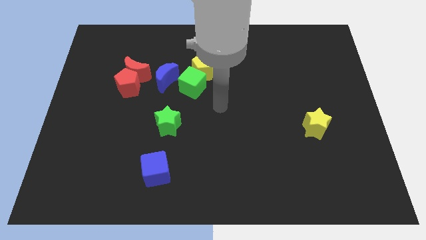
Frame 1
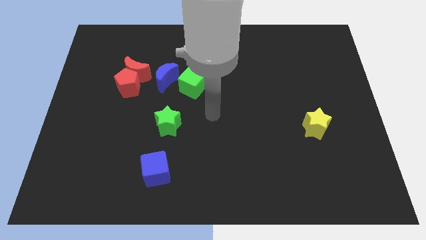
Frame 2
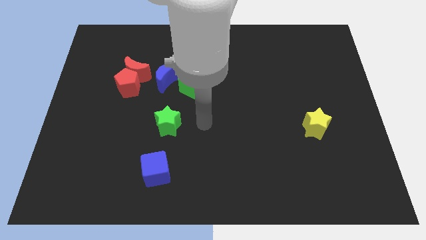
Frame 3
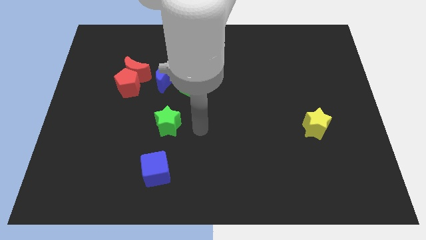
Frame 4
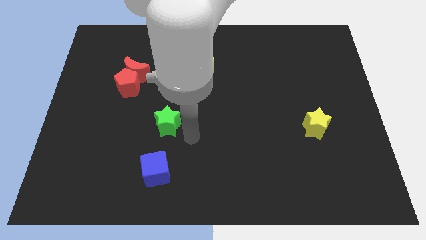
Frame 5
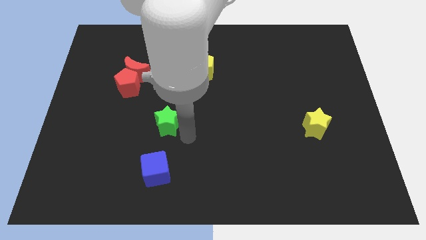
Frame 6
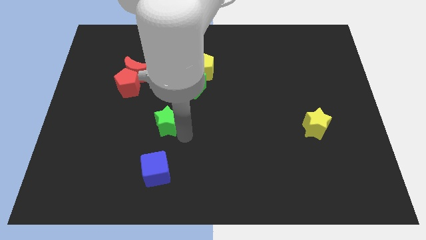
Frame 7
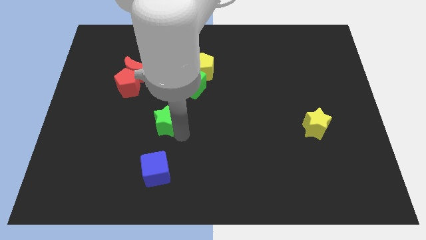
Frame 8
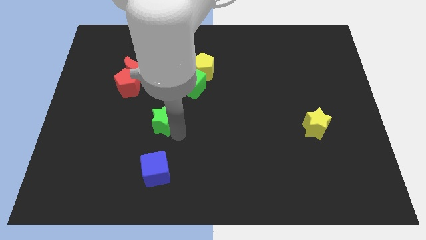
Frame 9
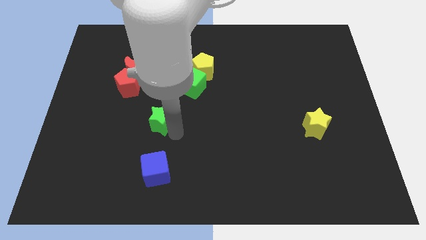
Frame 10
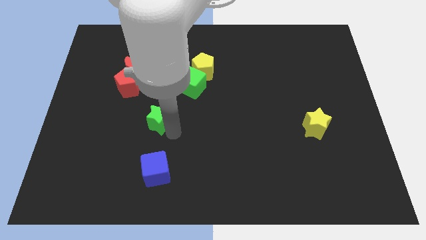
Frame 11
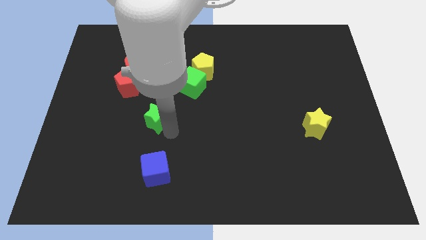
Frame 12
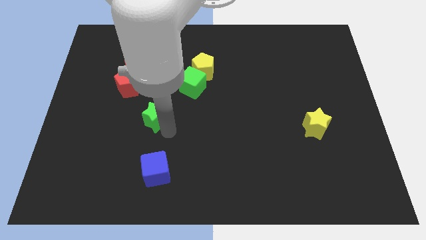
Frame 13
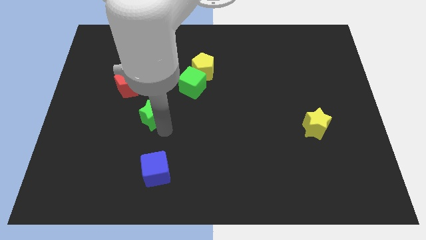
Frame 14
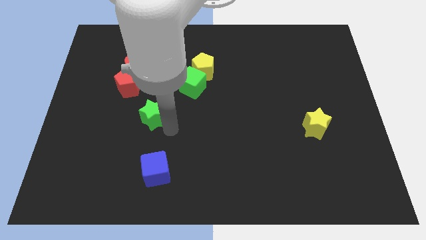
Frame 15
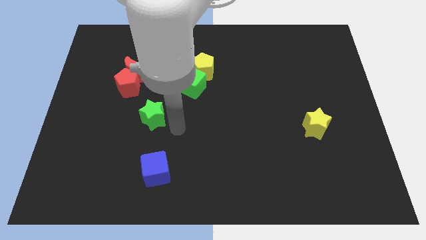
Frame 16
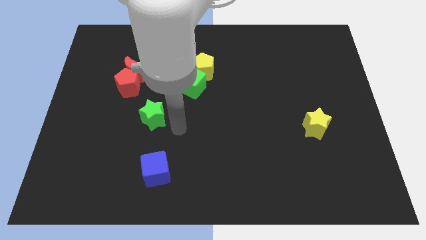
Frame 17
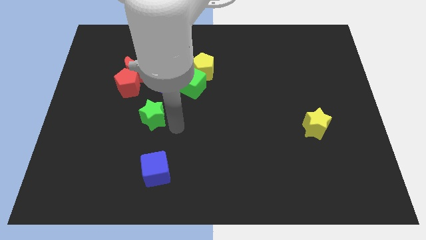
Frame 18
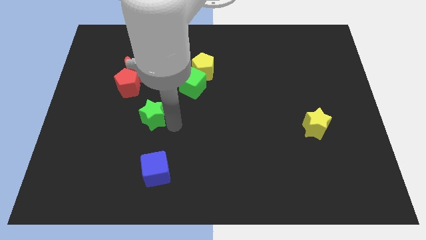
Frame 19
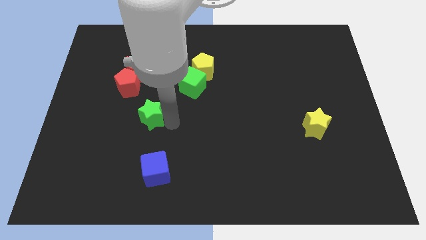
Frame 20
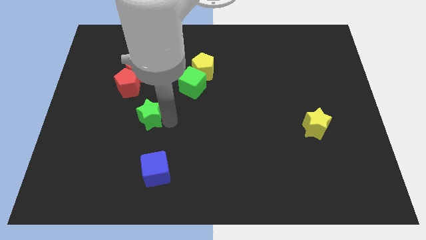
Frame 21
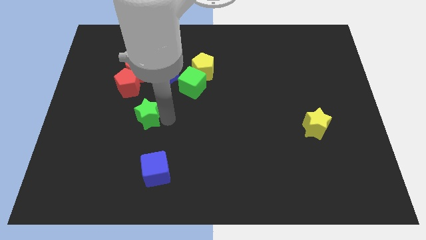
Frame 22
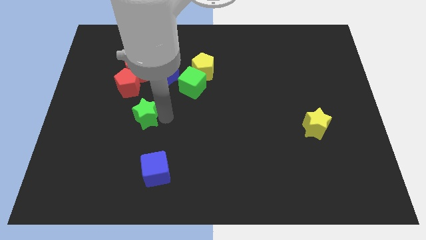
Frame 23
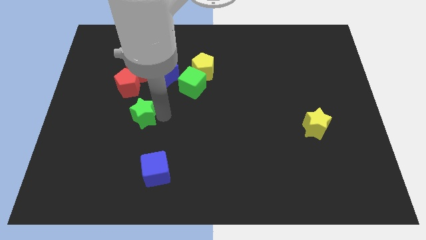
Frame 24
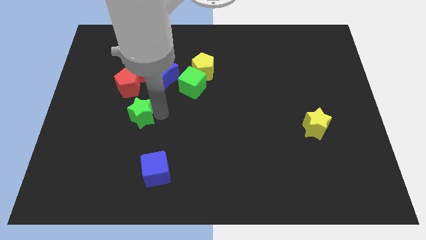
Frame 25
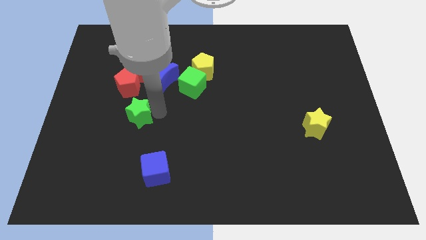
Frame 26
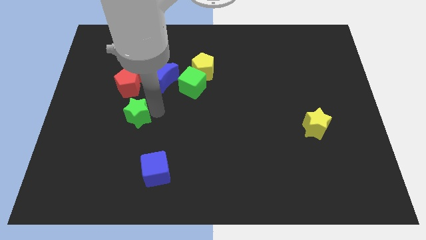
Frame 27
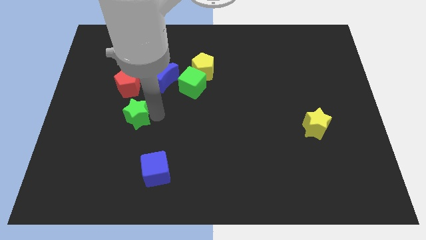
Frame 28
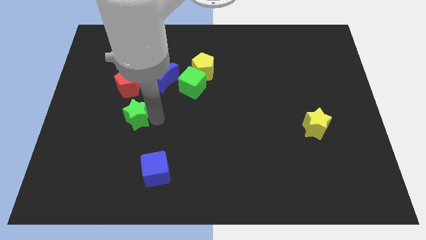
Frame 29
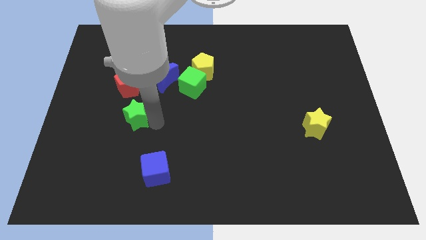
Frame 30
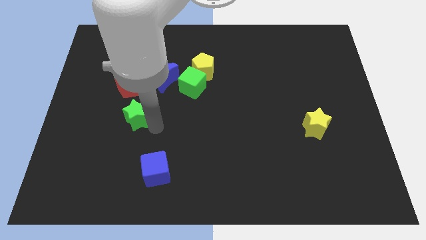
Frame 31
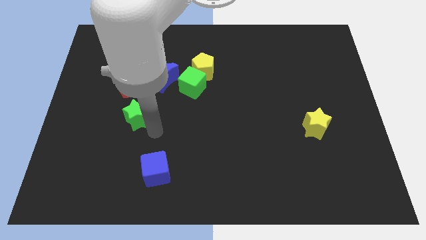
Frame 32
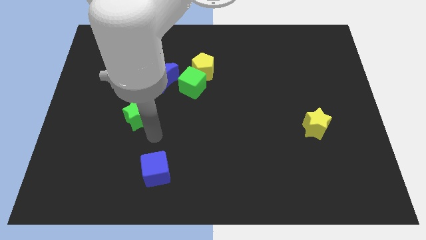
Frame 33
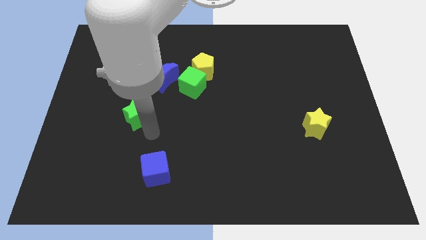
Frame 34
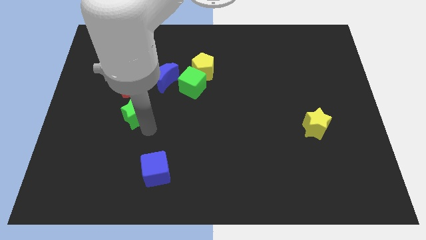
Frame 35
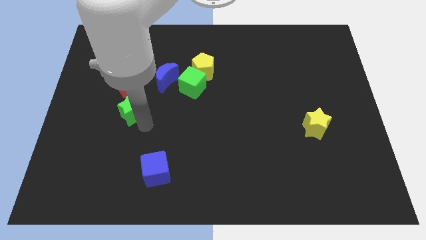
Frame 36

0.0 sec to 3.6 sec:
slide the green star up and to the left diagonally slightly

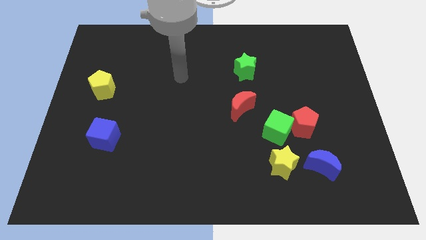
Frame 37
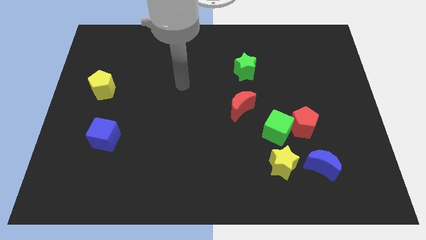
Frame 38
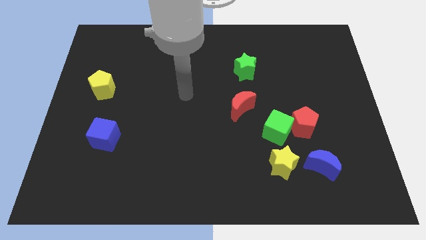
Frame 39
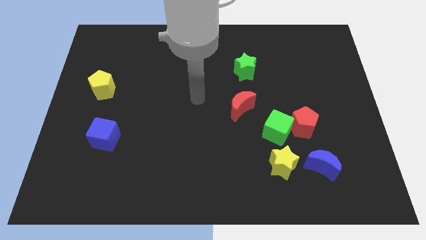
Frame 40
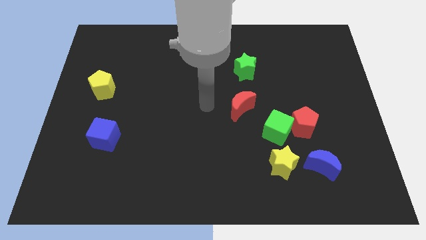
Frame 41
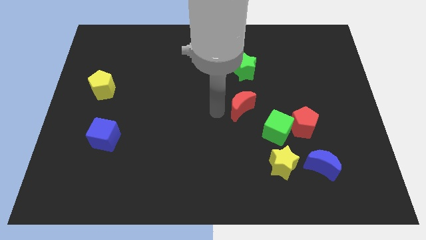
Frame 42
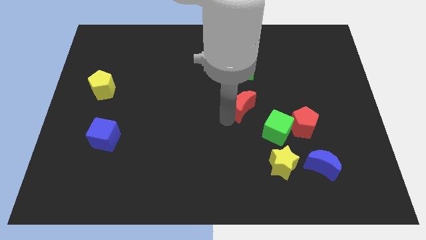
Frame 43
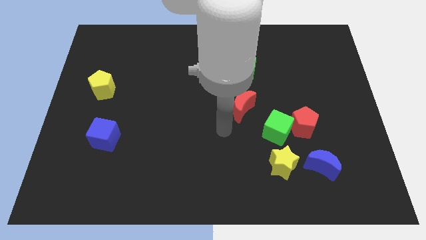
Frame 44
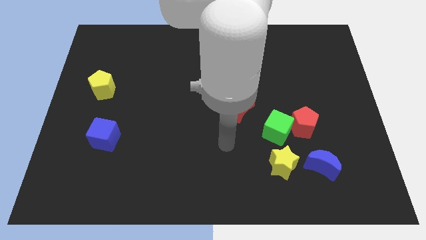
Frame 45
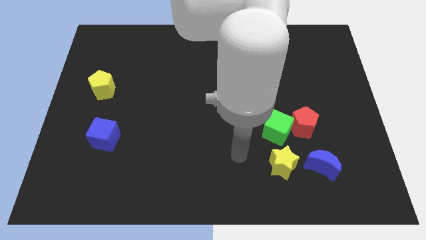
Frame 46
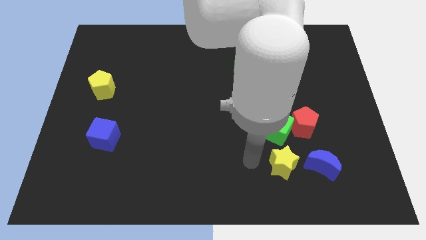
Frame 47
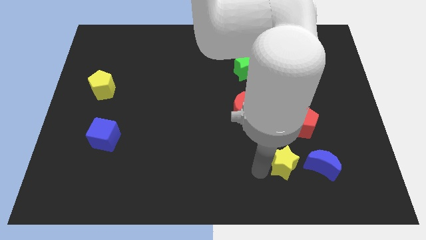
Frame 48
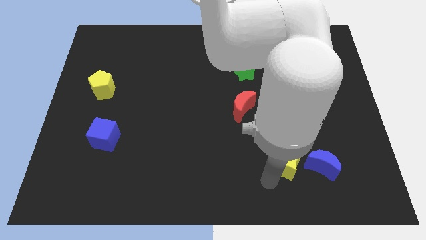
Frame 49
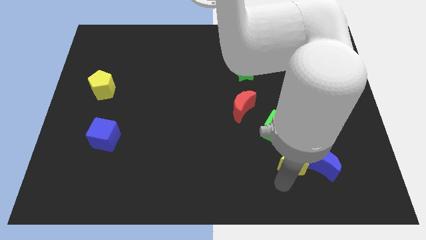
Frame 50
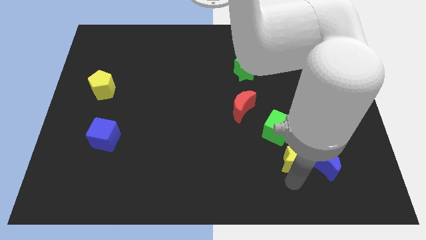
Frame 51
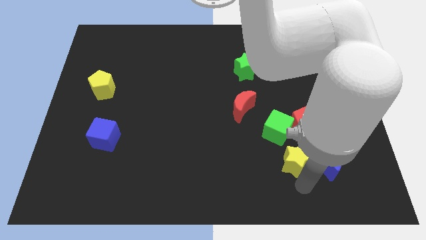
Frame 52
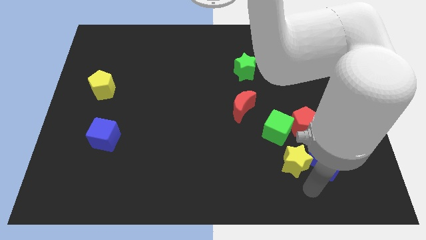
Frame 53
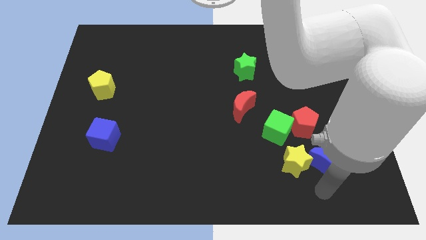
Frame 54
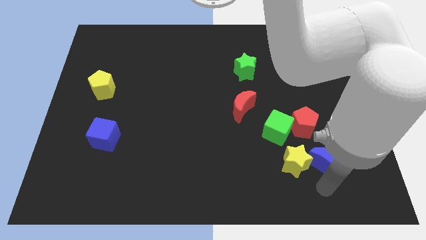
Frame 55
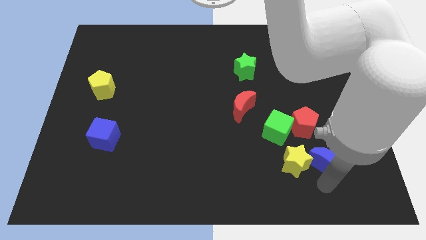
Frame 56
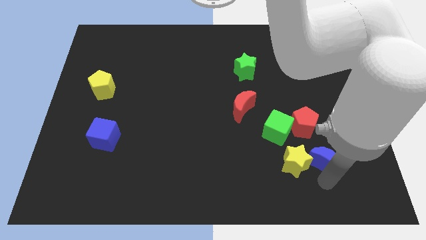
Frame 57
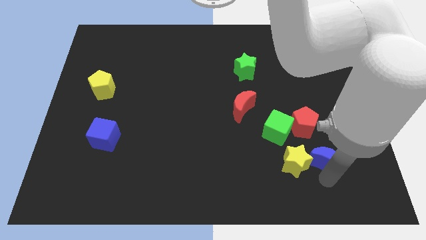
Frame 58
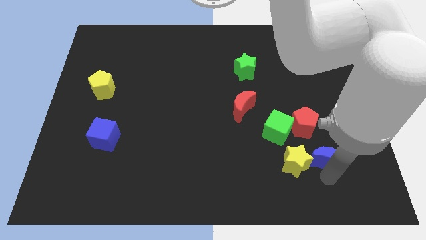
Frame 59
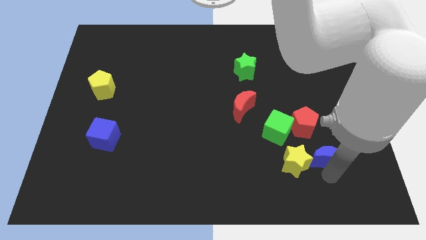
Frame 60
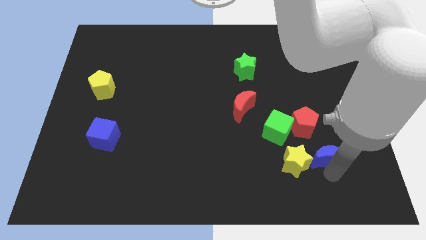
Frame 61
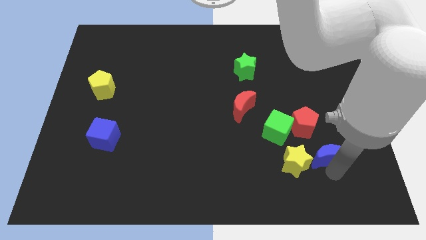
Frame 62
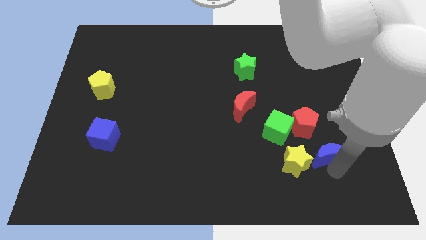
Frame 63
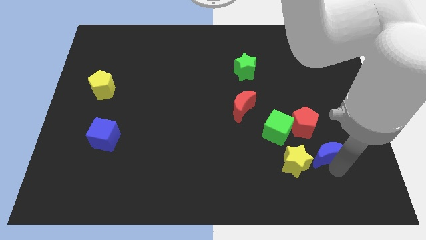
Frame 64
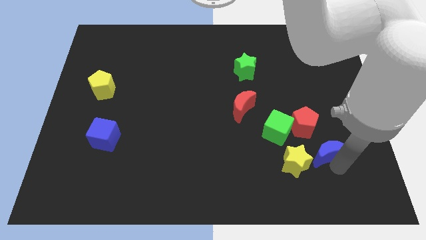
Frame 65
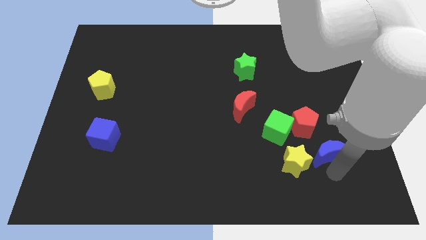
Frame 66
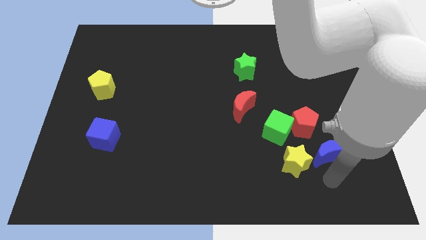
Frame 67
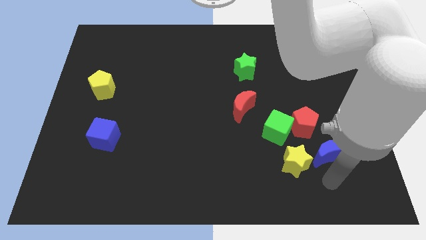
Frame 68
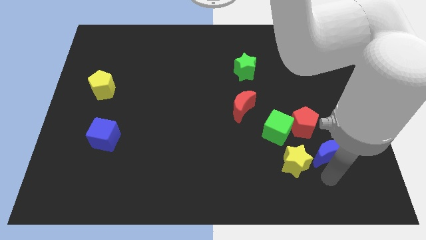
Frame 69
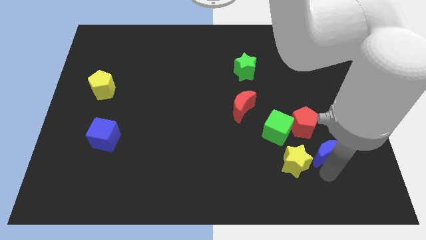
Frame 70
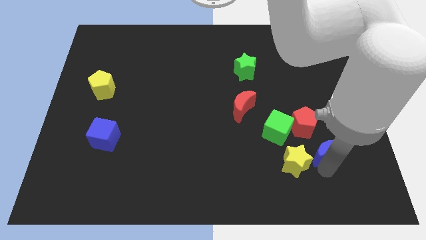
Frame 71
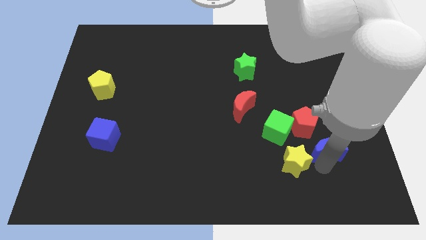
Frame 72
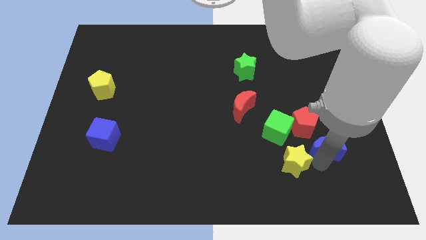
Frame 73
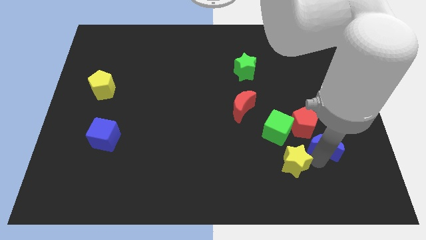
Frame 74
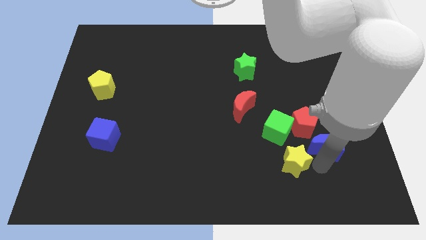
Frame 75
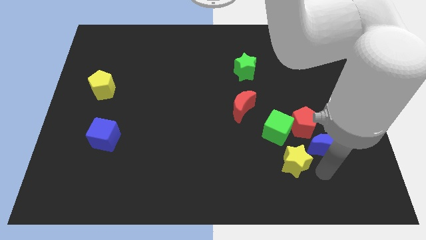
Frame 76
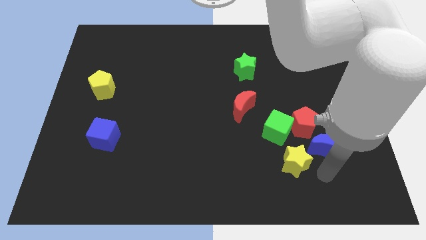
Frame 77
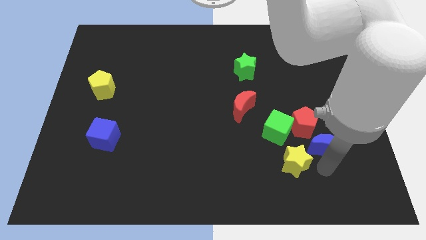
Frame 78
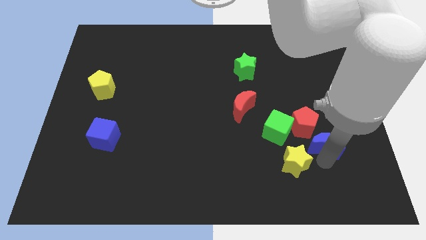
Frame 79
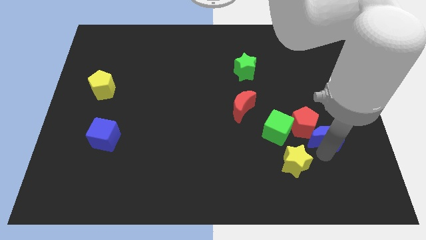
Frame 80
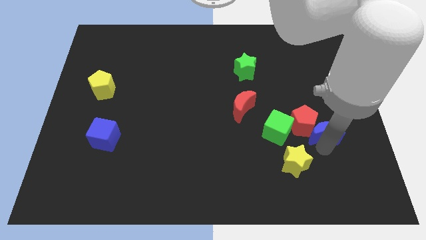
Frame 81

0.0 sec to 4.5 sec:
push the blue moon up a bit

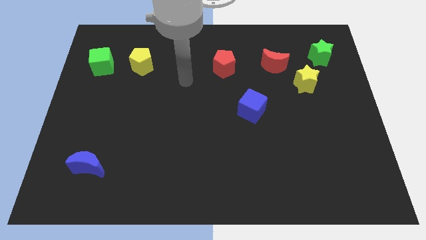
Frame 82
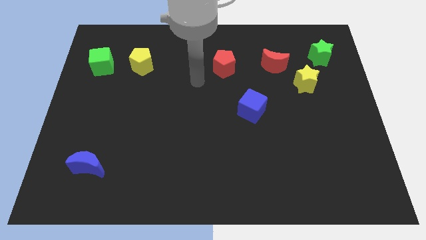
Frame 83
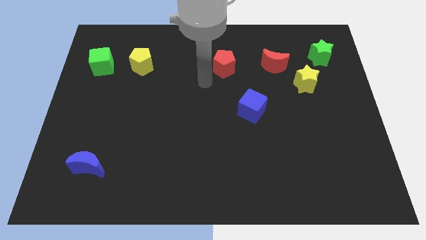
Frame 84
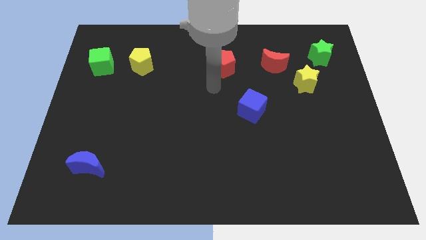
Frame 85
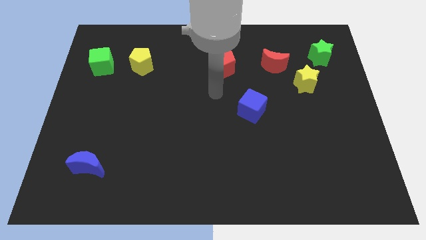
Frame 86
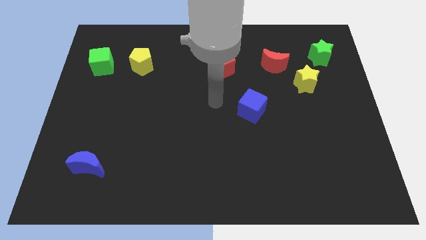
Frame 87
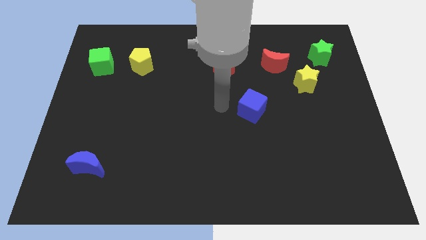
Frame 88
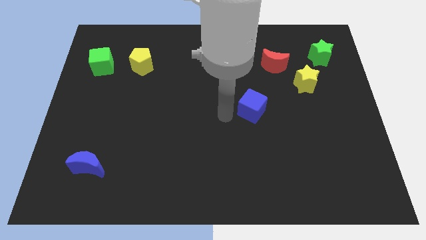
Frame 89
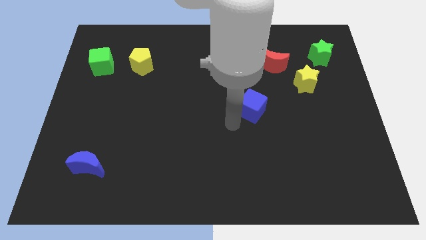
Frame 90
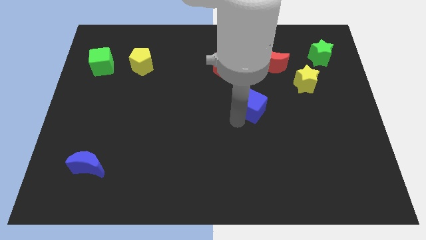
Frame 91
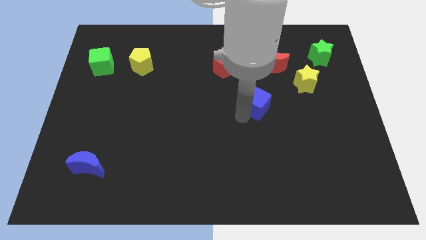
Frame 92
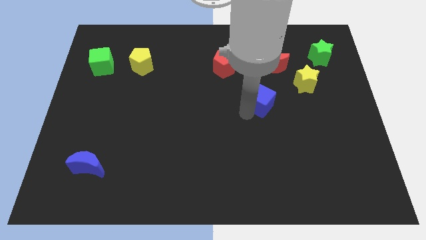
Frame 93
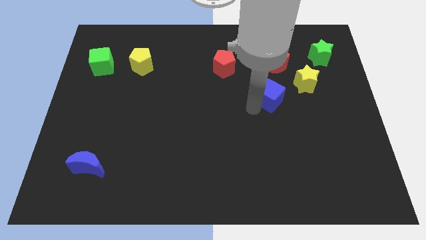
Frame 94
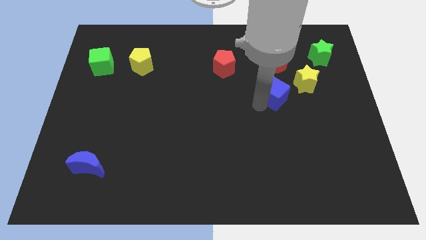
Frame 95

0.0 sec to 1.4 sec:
slightly push the blue cube up and right diagonally
